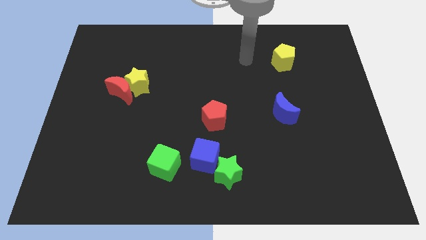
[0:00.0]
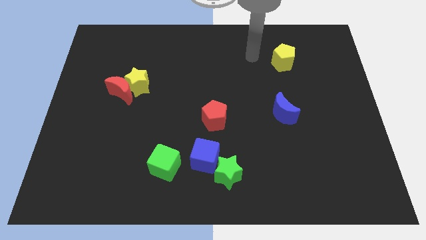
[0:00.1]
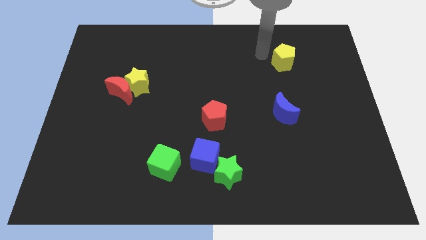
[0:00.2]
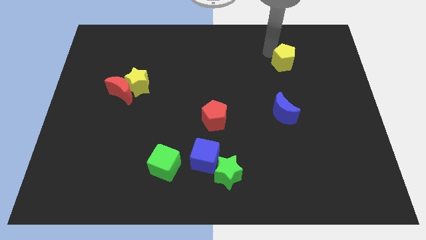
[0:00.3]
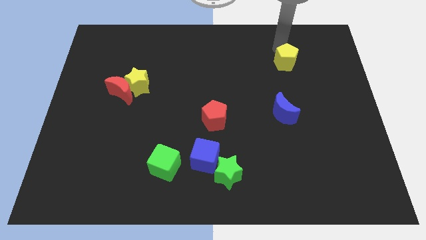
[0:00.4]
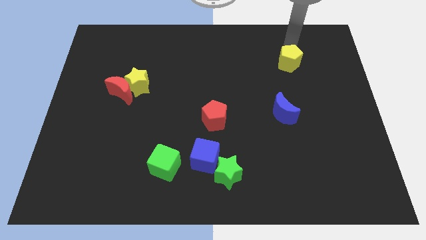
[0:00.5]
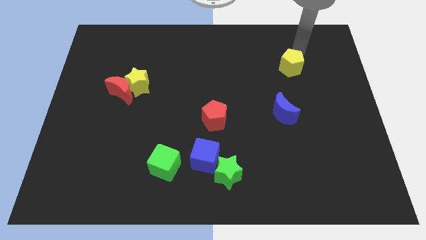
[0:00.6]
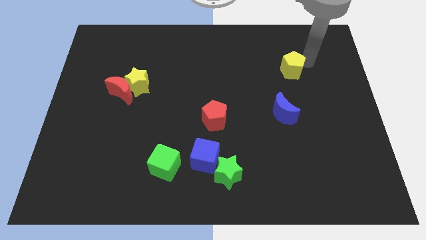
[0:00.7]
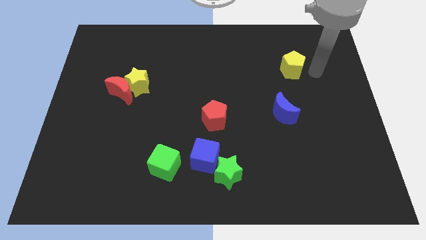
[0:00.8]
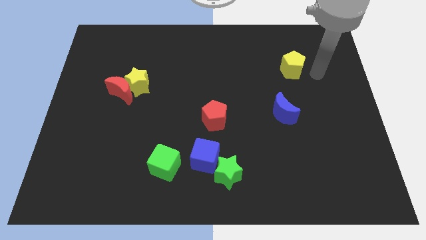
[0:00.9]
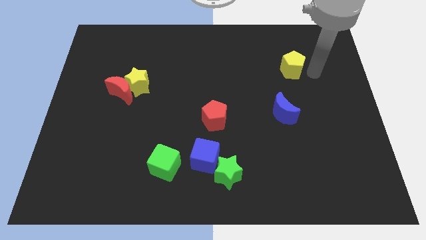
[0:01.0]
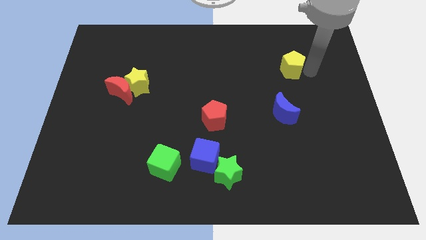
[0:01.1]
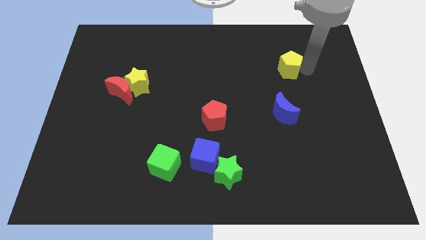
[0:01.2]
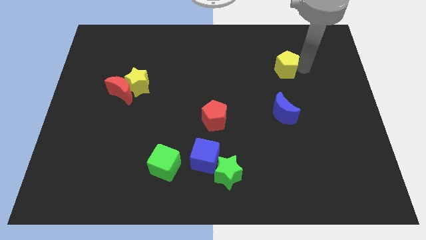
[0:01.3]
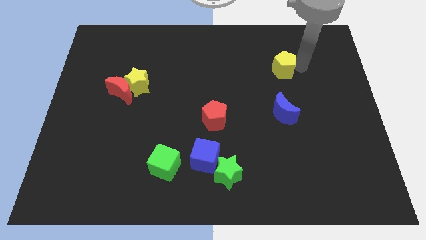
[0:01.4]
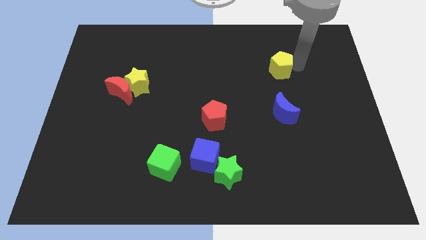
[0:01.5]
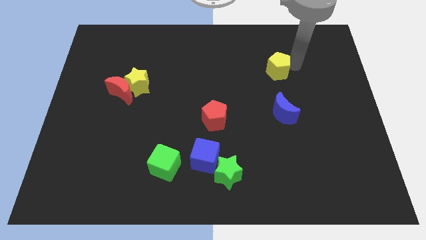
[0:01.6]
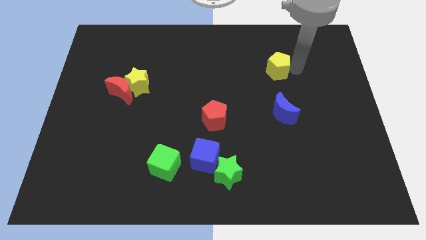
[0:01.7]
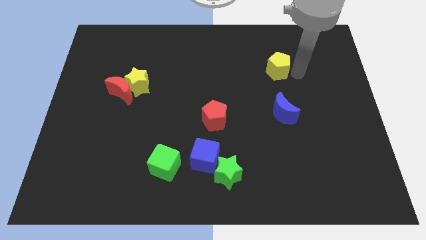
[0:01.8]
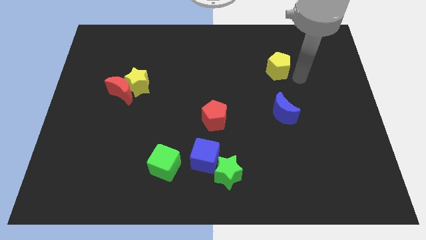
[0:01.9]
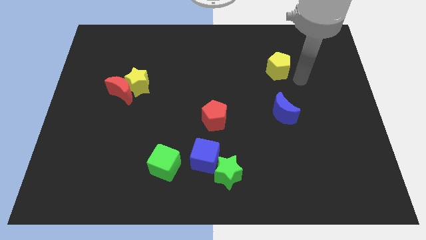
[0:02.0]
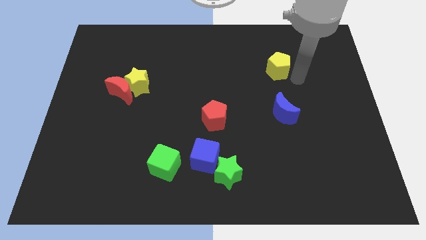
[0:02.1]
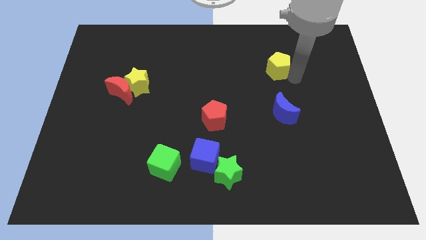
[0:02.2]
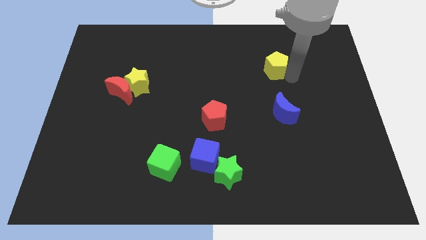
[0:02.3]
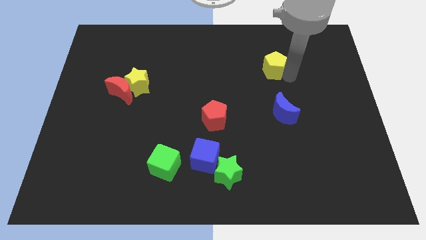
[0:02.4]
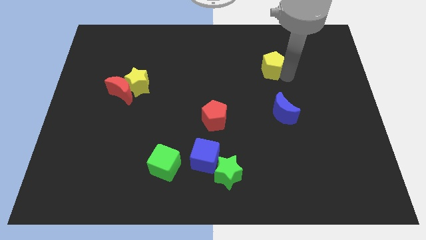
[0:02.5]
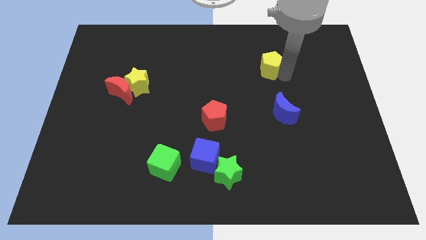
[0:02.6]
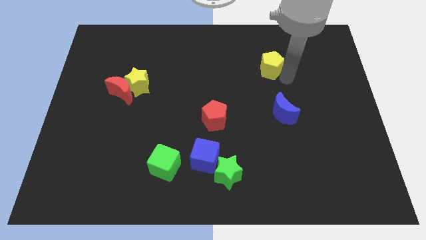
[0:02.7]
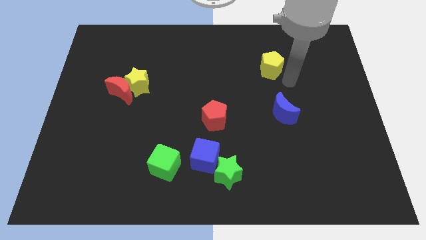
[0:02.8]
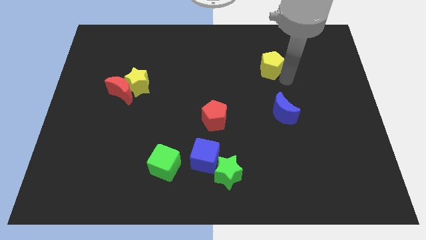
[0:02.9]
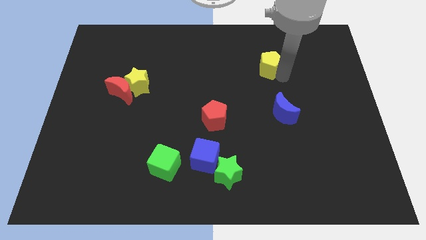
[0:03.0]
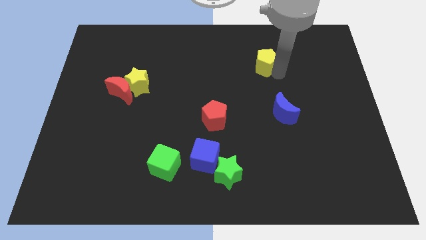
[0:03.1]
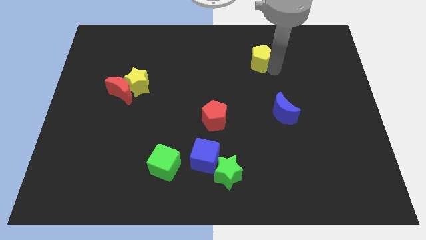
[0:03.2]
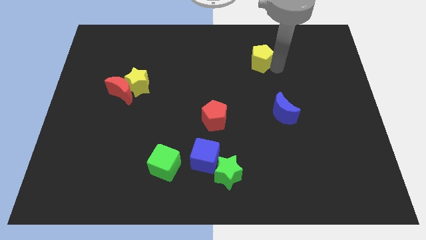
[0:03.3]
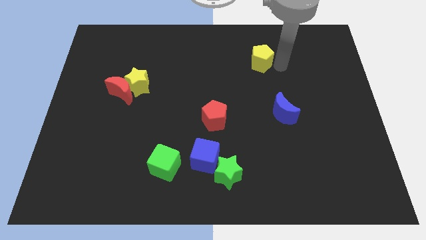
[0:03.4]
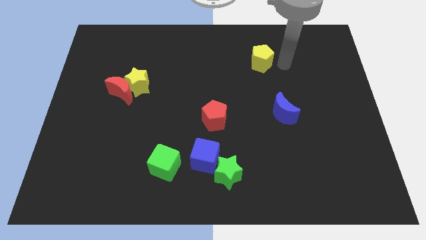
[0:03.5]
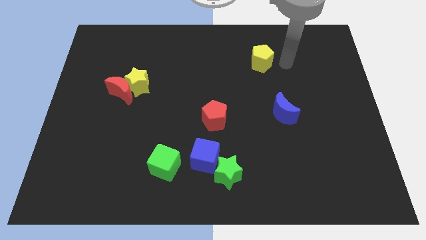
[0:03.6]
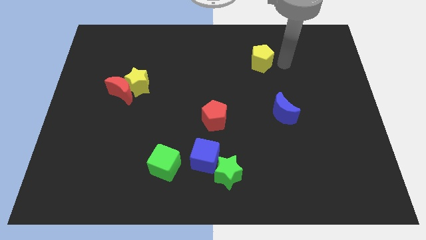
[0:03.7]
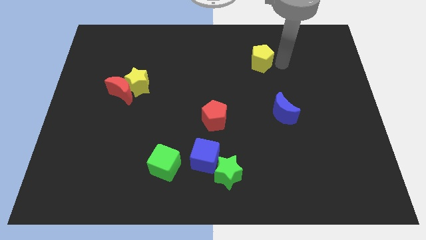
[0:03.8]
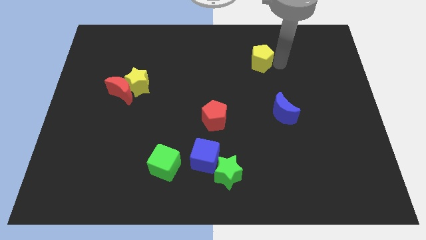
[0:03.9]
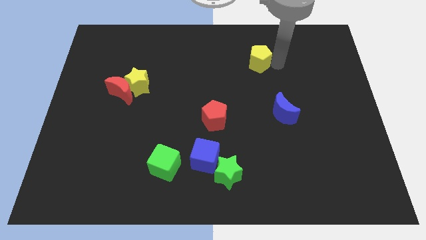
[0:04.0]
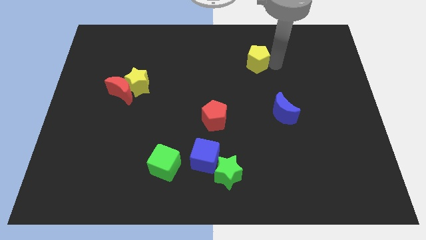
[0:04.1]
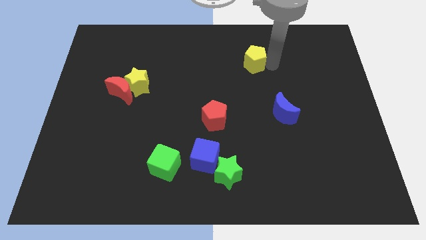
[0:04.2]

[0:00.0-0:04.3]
slide the yellow pentagon to the left a bit

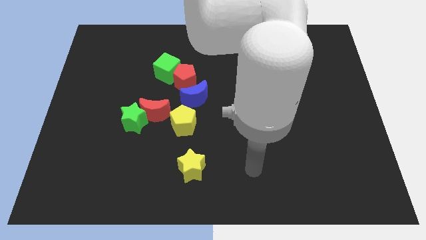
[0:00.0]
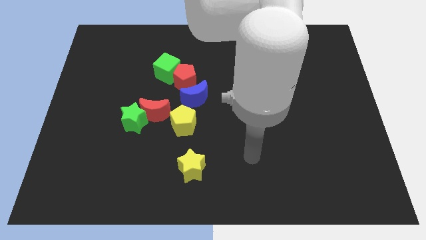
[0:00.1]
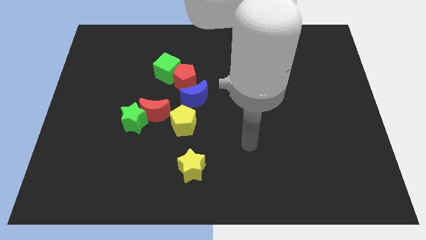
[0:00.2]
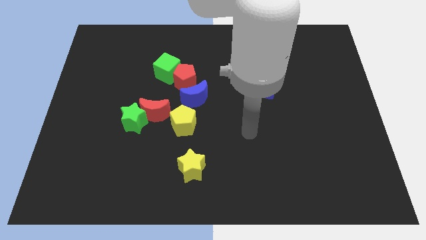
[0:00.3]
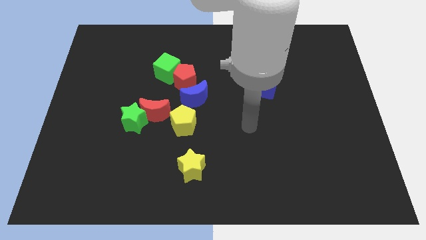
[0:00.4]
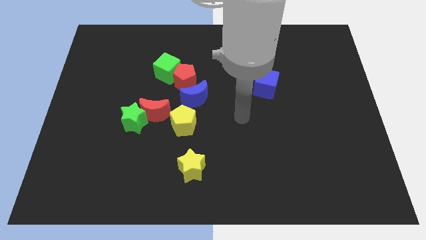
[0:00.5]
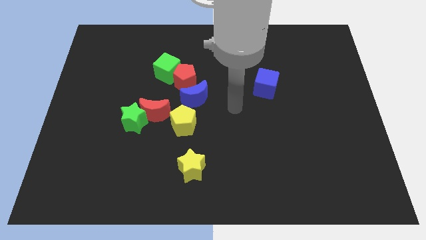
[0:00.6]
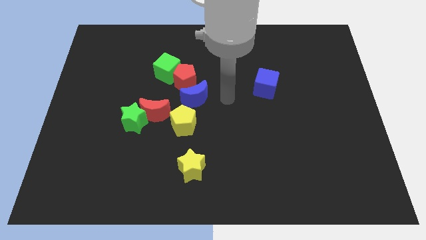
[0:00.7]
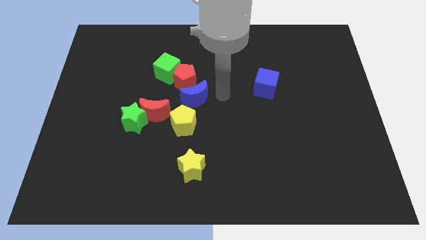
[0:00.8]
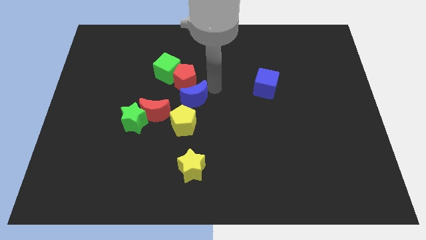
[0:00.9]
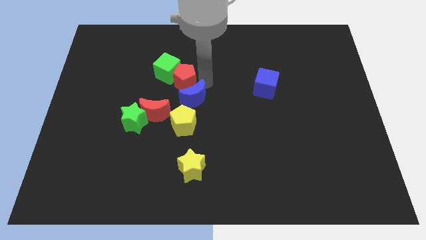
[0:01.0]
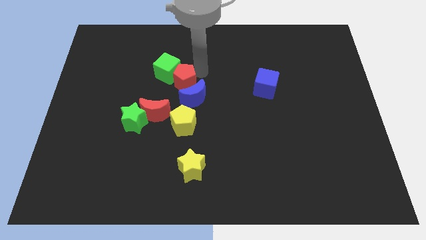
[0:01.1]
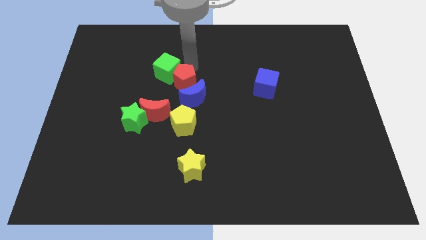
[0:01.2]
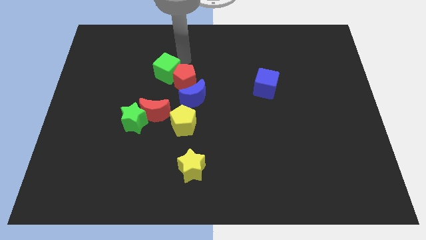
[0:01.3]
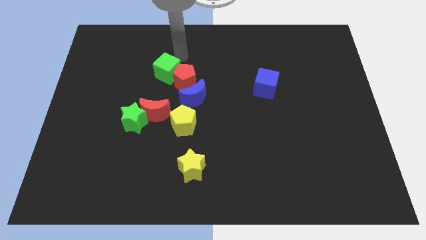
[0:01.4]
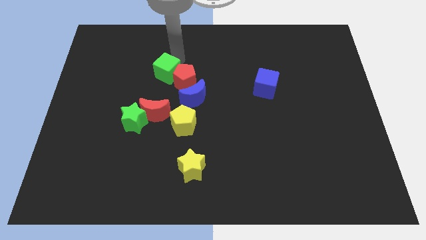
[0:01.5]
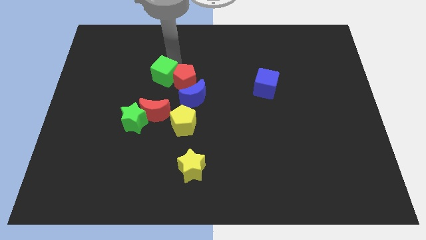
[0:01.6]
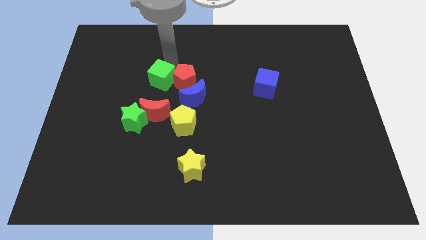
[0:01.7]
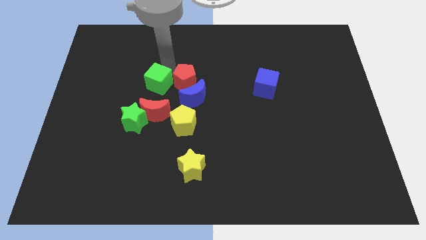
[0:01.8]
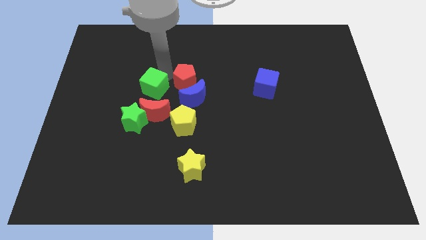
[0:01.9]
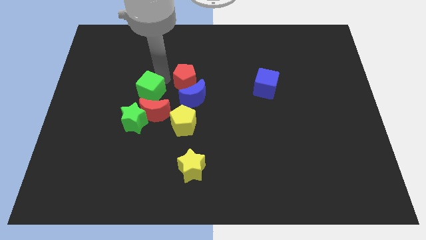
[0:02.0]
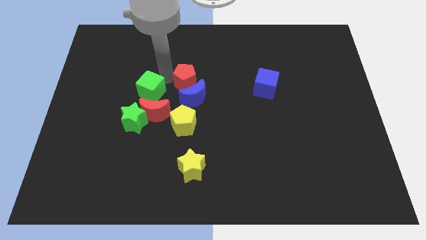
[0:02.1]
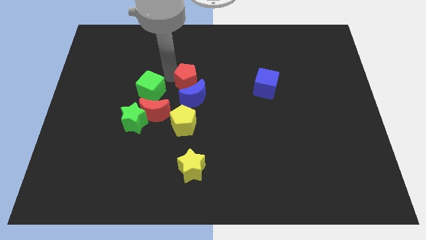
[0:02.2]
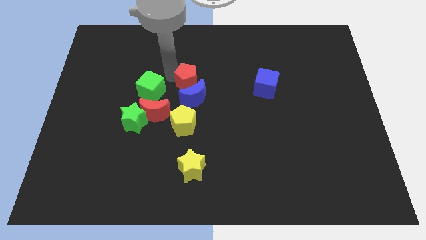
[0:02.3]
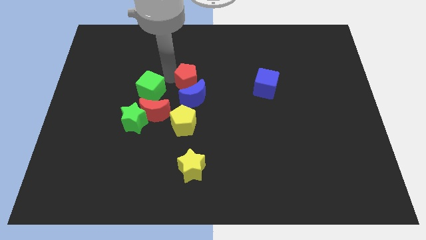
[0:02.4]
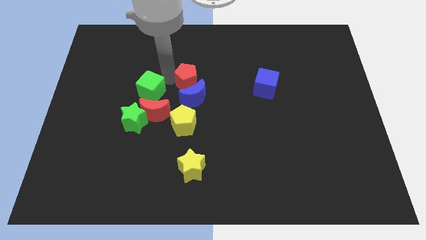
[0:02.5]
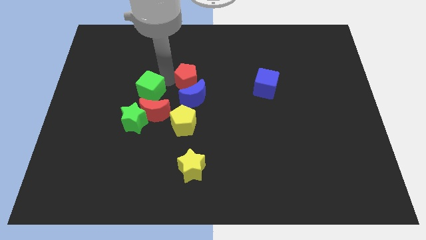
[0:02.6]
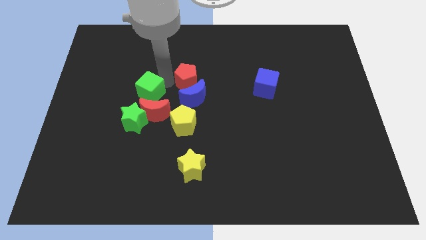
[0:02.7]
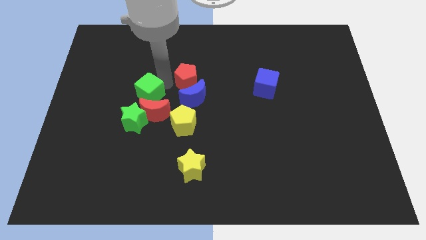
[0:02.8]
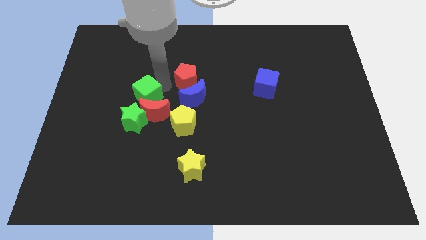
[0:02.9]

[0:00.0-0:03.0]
slightly move the green cube downwards

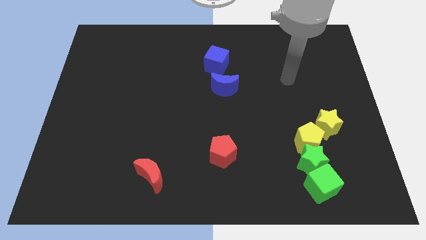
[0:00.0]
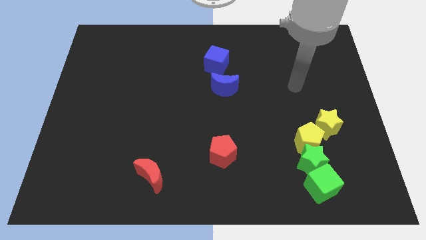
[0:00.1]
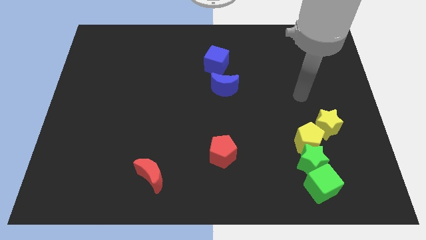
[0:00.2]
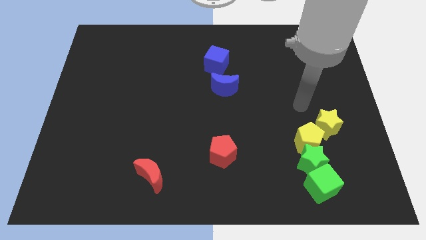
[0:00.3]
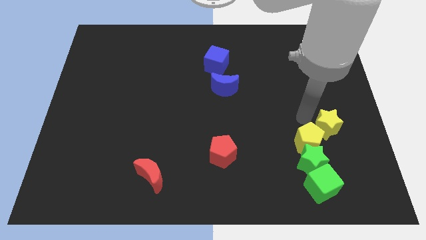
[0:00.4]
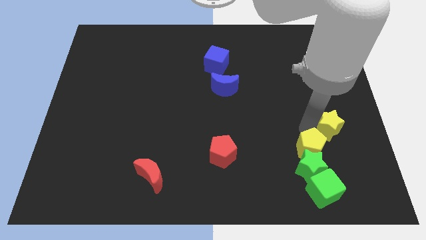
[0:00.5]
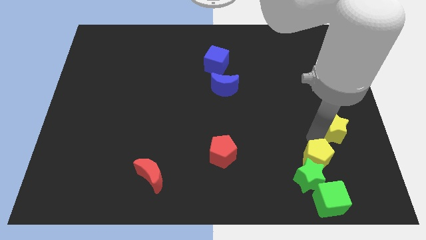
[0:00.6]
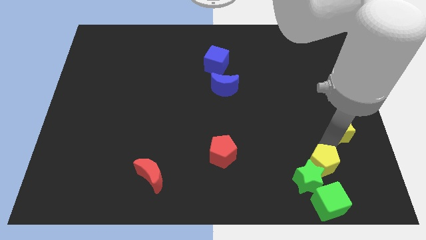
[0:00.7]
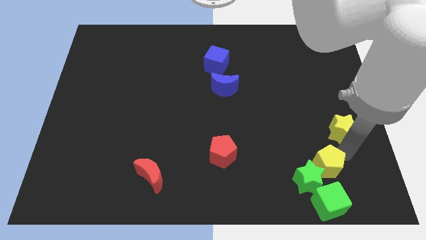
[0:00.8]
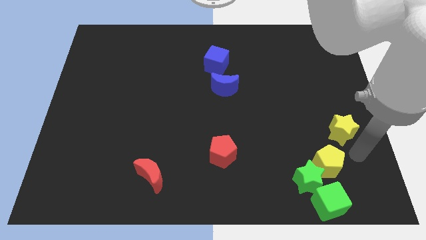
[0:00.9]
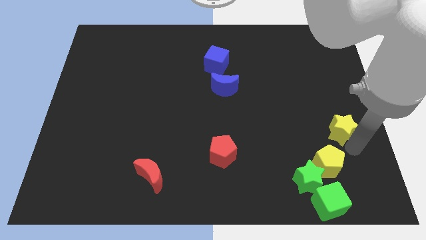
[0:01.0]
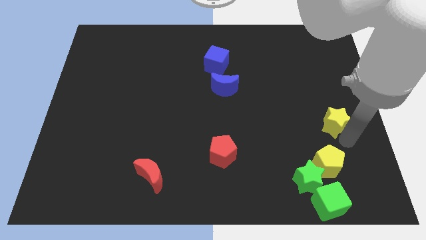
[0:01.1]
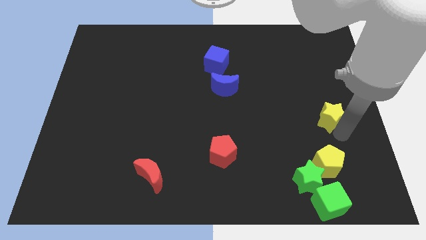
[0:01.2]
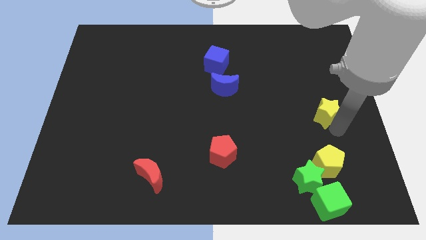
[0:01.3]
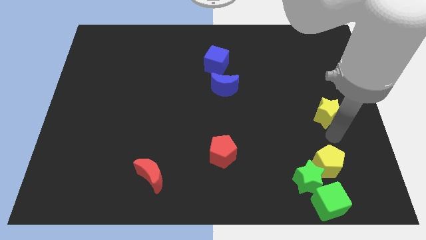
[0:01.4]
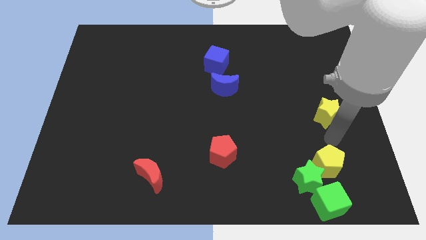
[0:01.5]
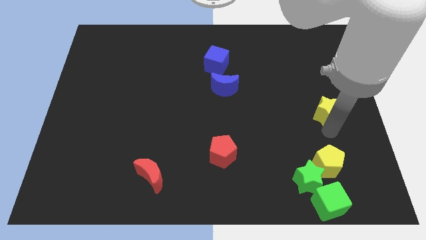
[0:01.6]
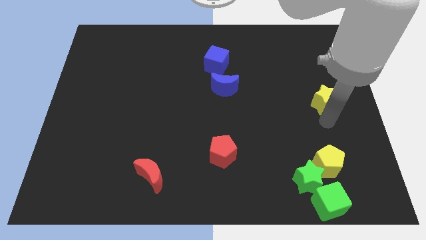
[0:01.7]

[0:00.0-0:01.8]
push the yellow star up a little bit
